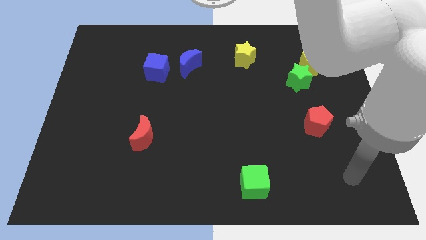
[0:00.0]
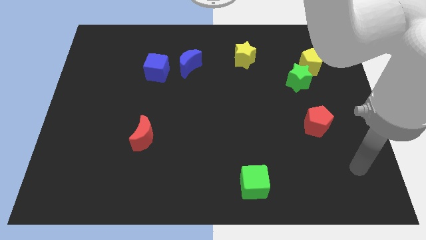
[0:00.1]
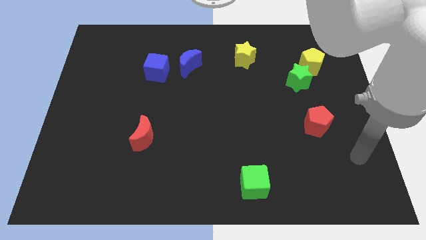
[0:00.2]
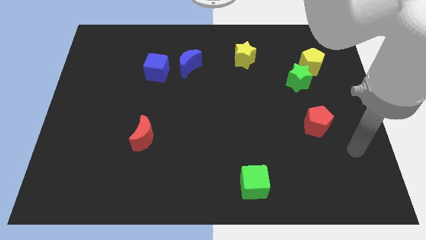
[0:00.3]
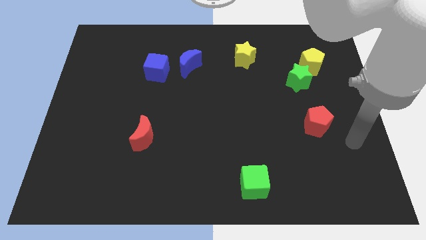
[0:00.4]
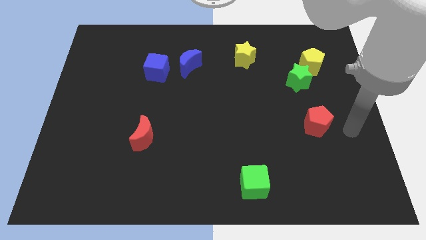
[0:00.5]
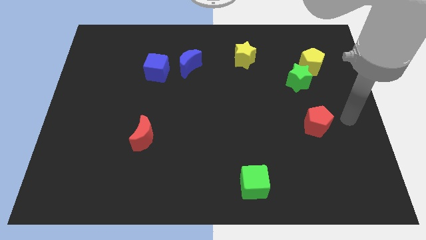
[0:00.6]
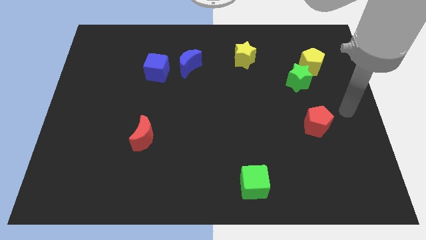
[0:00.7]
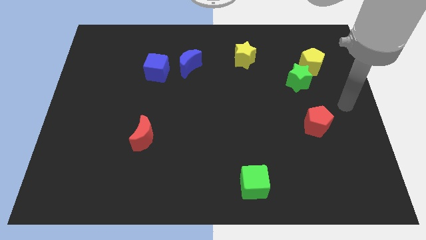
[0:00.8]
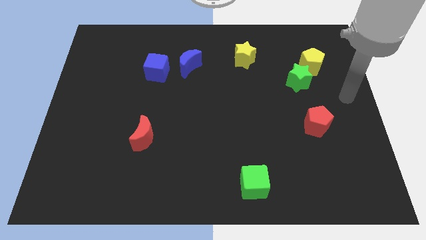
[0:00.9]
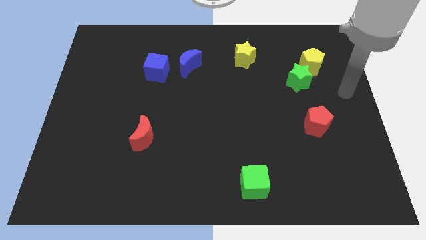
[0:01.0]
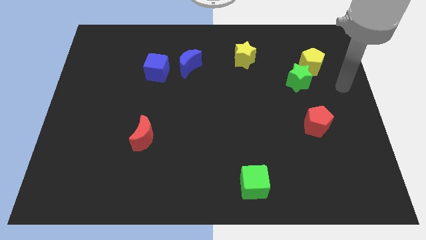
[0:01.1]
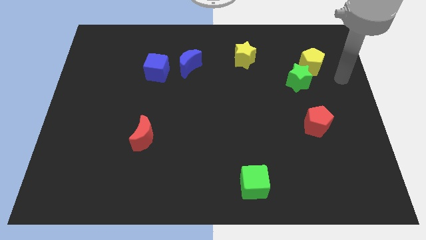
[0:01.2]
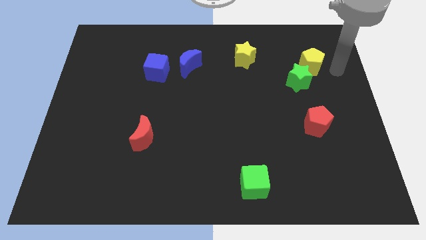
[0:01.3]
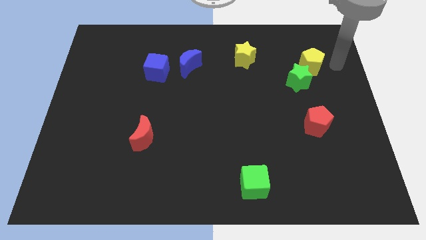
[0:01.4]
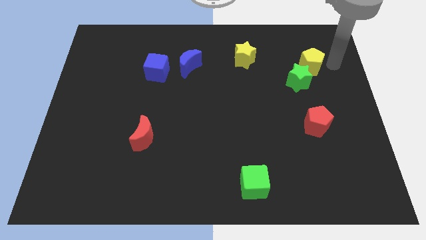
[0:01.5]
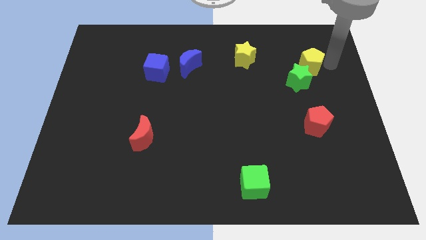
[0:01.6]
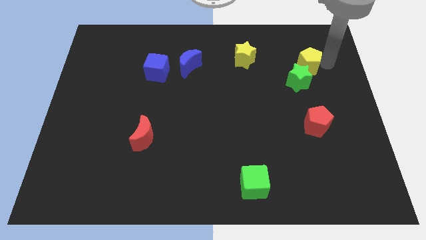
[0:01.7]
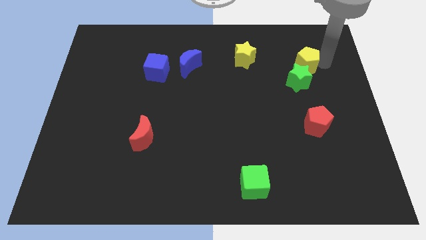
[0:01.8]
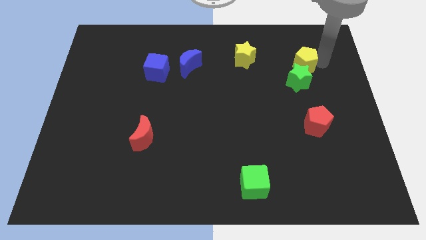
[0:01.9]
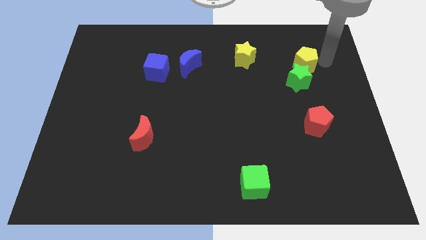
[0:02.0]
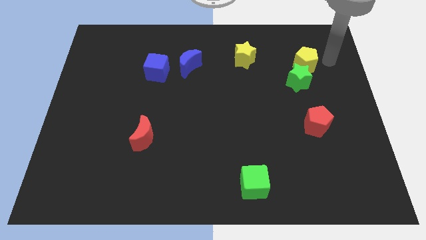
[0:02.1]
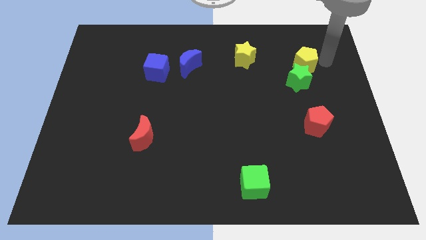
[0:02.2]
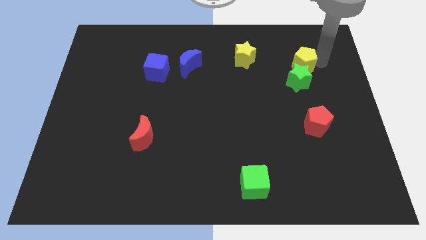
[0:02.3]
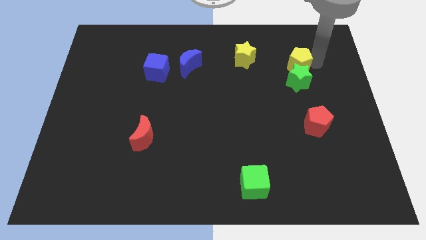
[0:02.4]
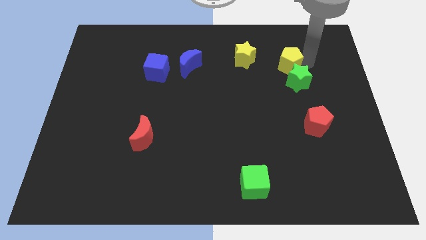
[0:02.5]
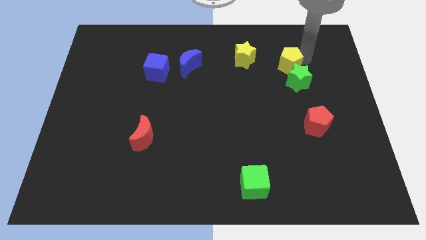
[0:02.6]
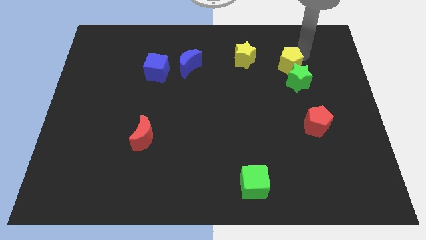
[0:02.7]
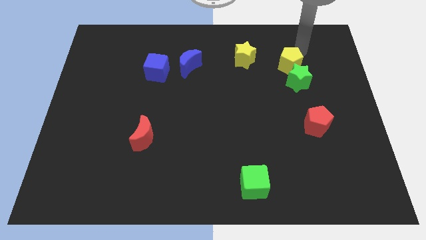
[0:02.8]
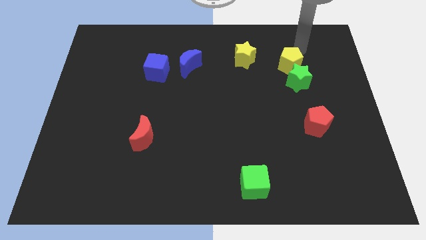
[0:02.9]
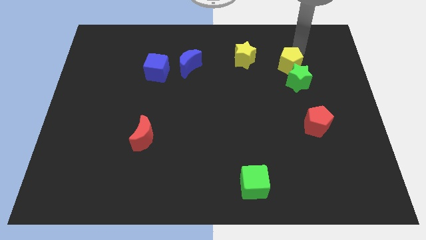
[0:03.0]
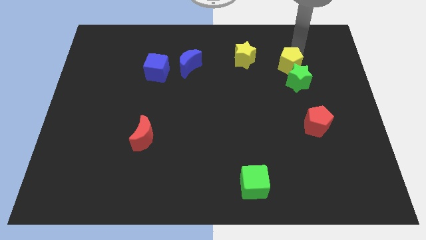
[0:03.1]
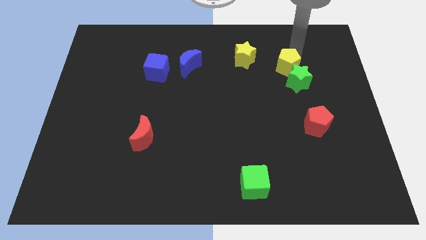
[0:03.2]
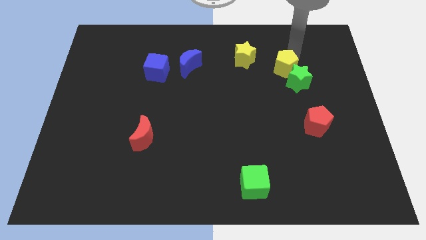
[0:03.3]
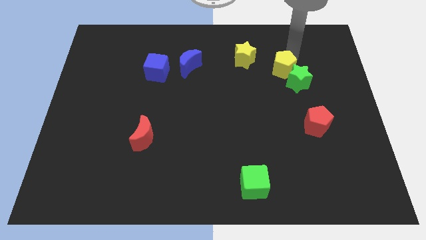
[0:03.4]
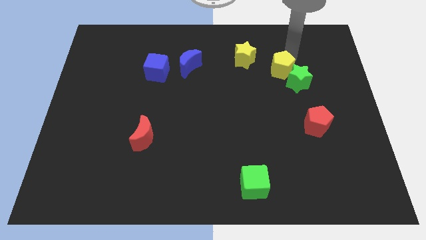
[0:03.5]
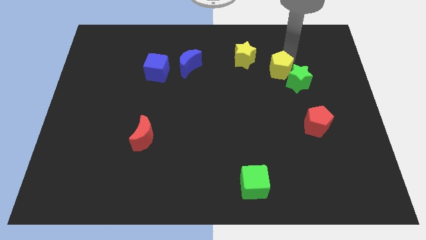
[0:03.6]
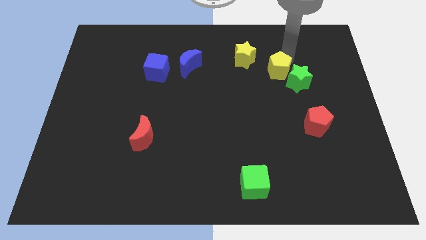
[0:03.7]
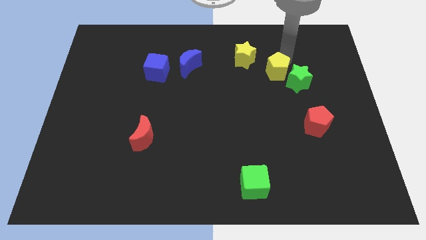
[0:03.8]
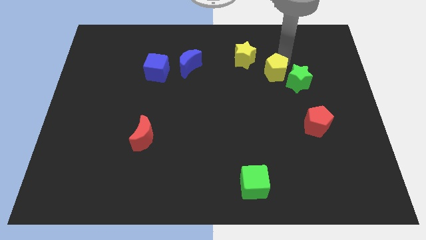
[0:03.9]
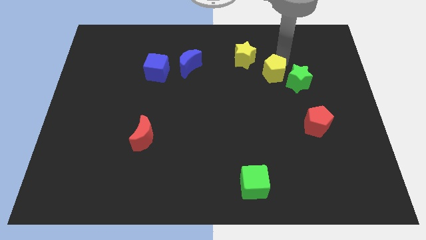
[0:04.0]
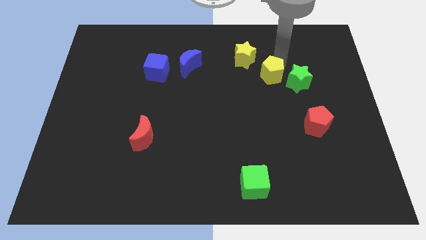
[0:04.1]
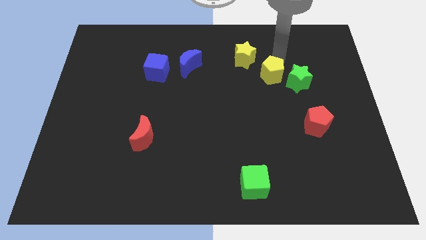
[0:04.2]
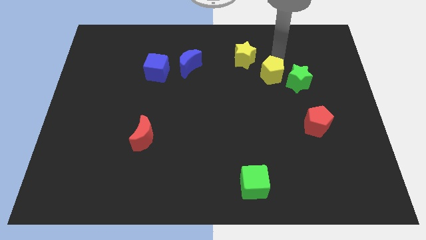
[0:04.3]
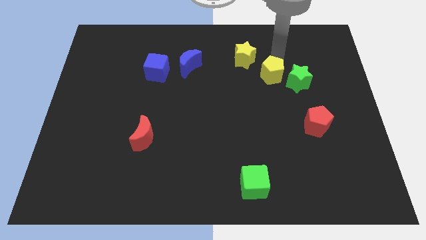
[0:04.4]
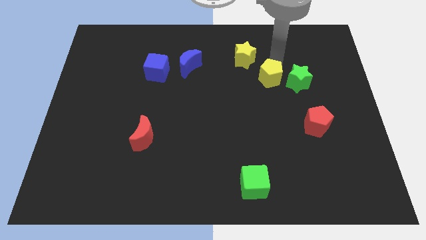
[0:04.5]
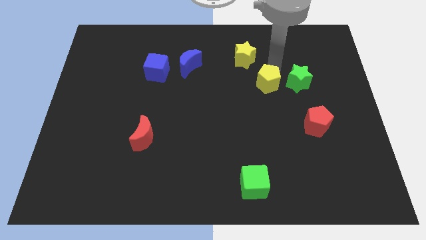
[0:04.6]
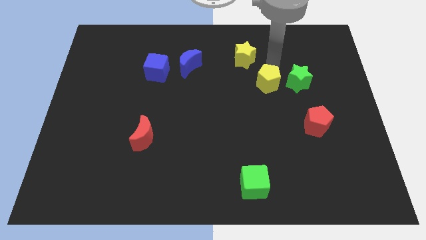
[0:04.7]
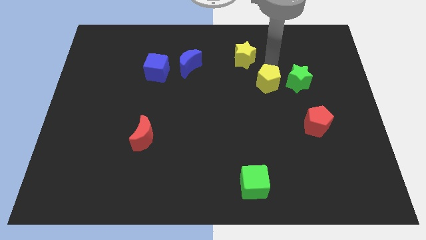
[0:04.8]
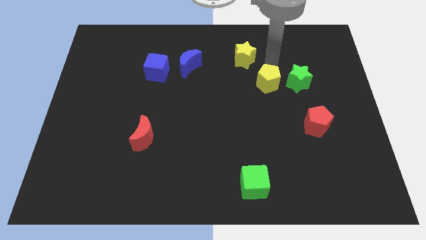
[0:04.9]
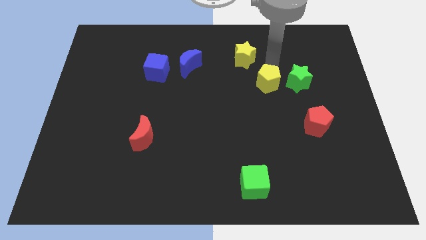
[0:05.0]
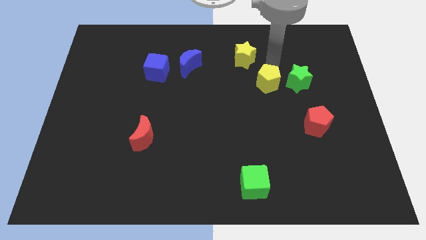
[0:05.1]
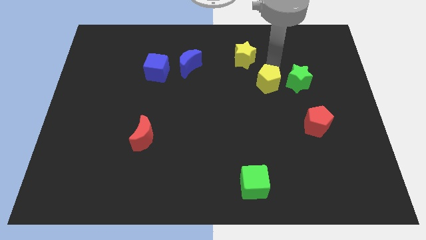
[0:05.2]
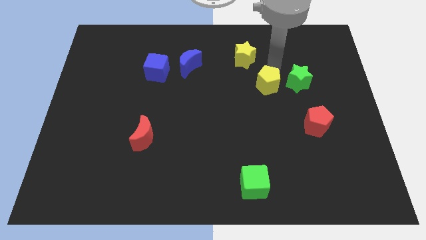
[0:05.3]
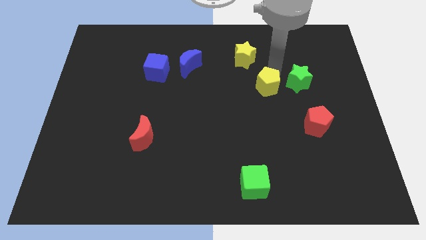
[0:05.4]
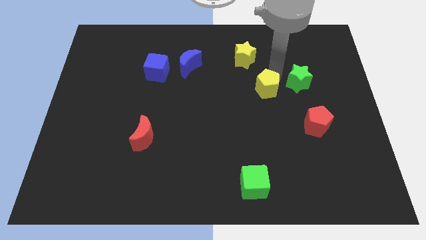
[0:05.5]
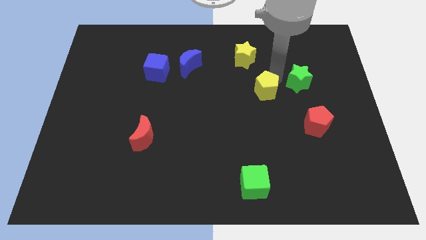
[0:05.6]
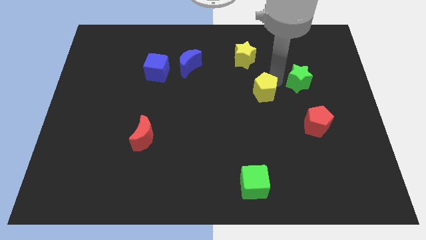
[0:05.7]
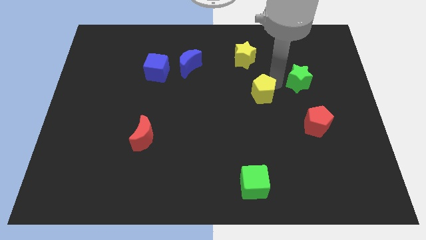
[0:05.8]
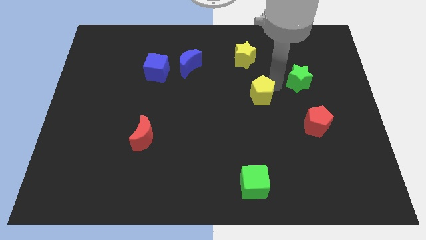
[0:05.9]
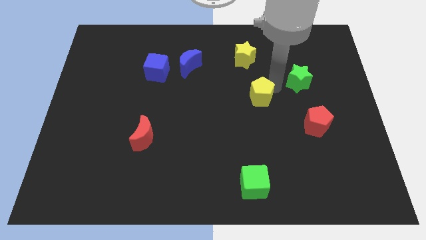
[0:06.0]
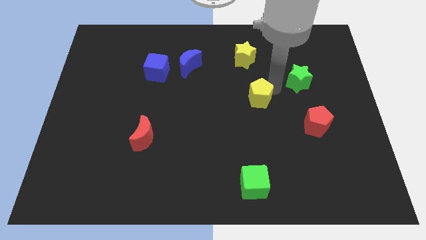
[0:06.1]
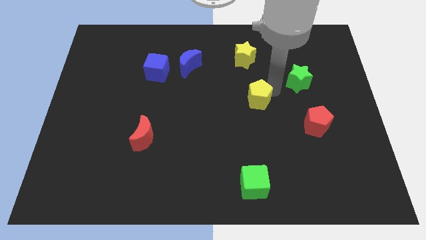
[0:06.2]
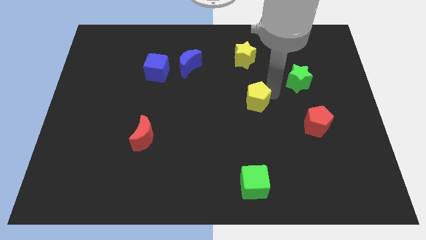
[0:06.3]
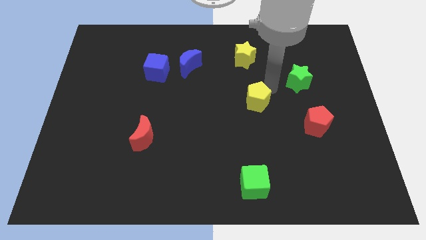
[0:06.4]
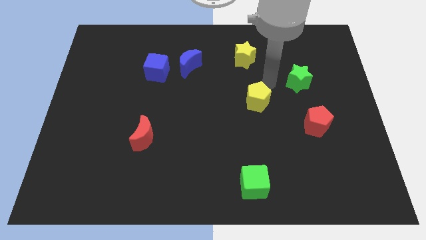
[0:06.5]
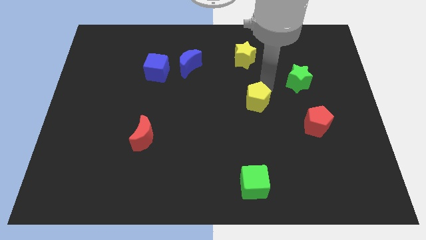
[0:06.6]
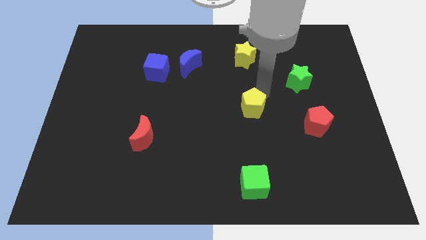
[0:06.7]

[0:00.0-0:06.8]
push the yellow pentagon downwards and left

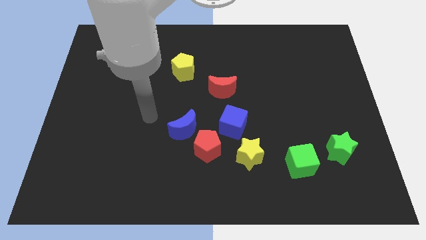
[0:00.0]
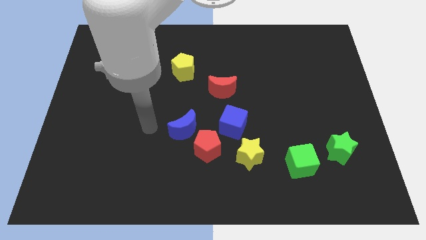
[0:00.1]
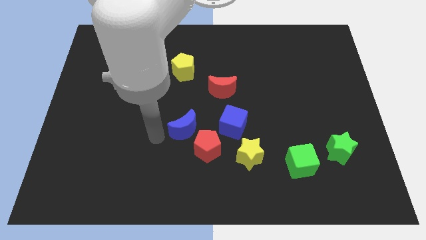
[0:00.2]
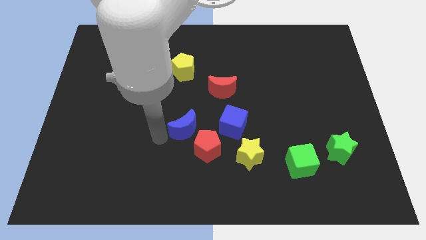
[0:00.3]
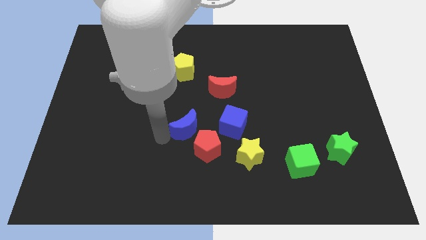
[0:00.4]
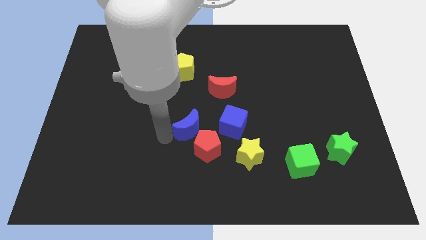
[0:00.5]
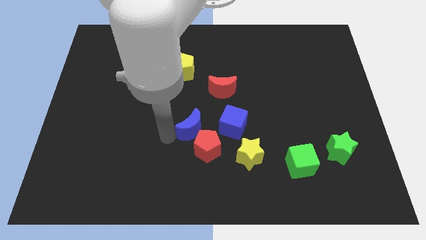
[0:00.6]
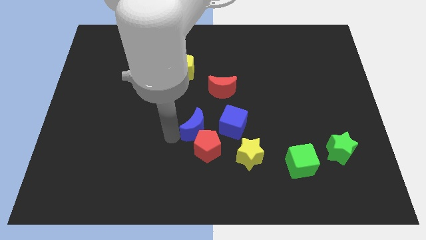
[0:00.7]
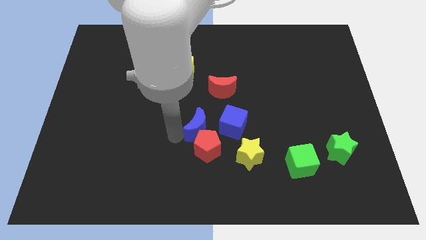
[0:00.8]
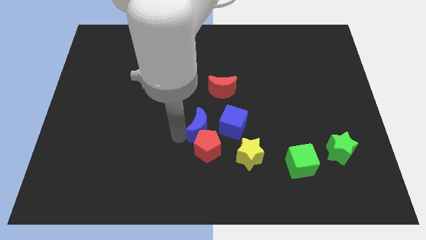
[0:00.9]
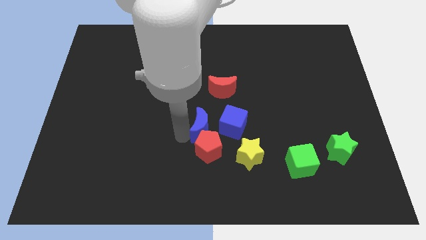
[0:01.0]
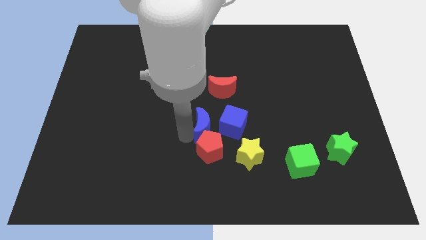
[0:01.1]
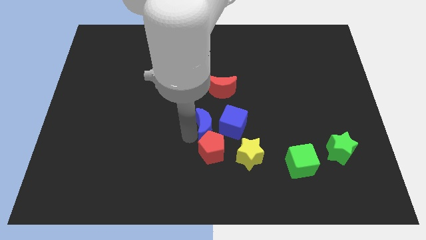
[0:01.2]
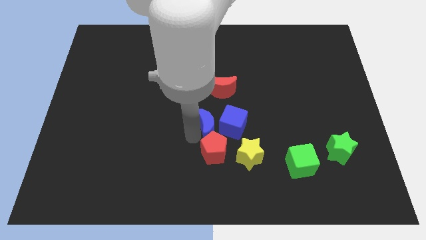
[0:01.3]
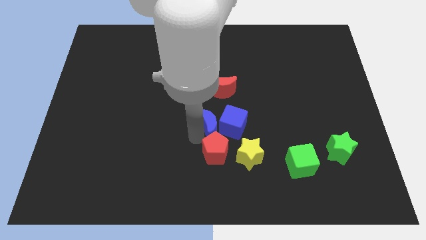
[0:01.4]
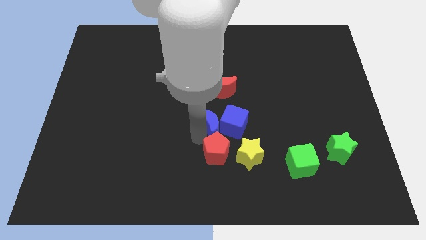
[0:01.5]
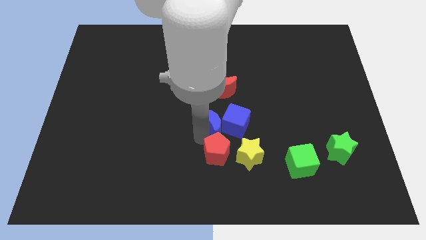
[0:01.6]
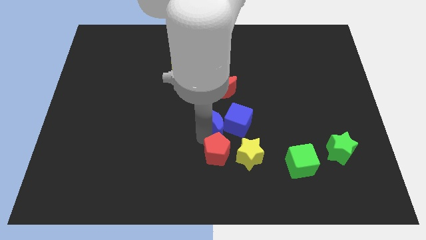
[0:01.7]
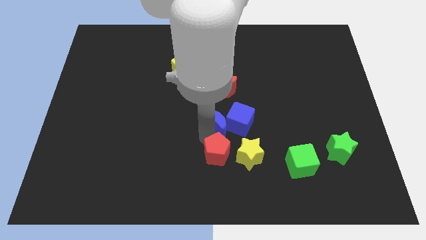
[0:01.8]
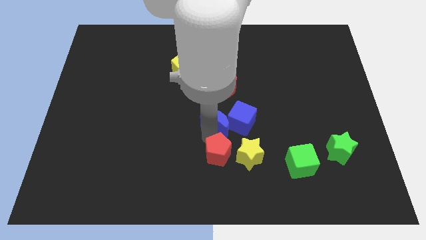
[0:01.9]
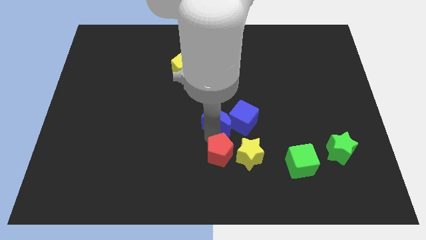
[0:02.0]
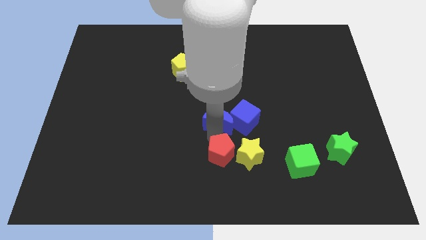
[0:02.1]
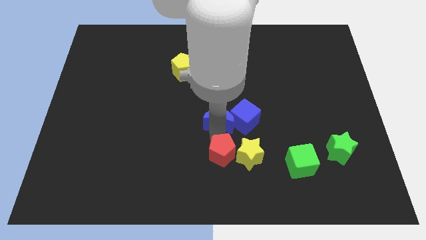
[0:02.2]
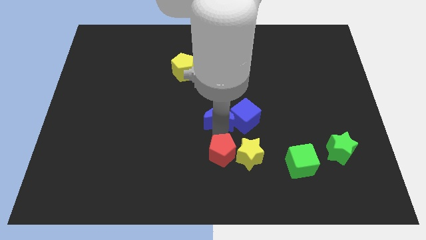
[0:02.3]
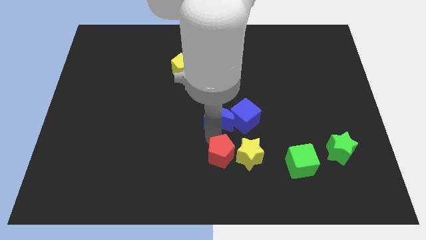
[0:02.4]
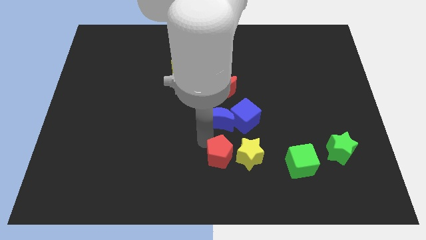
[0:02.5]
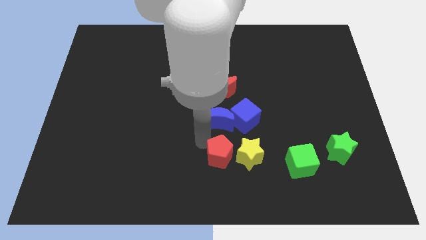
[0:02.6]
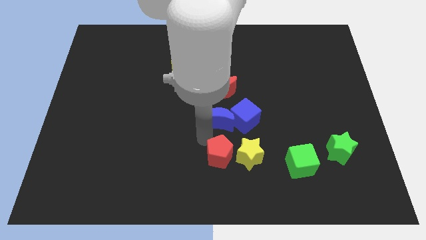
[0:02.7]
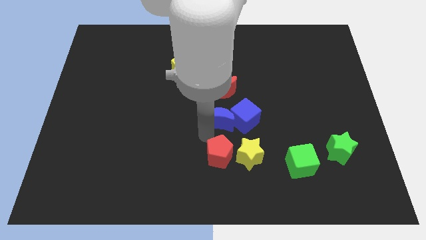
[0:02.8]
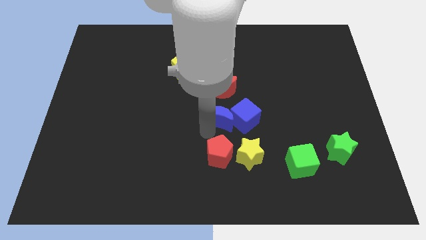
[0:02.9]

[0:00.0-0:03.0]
slide the blue moon upwards and then to the right a bit
